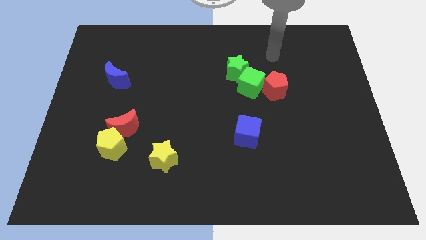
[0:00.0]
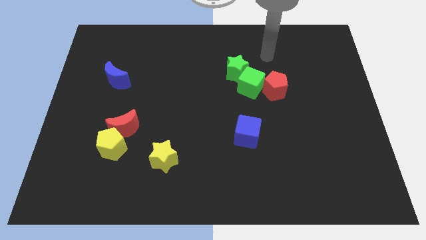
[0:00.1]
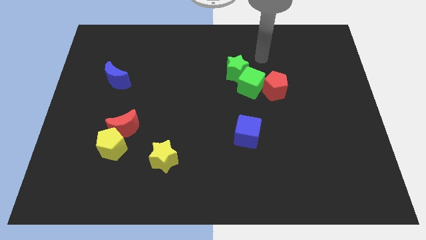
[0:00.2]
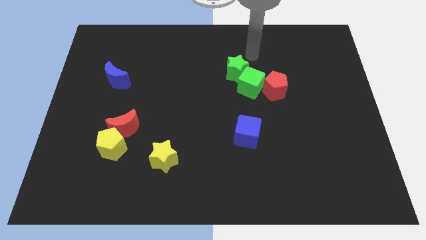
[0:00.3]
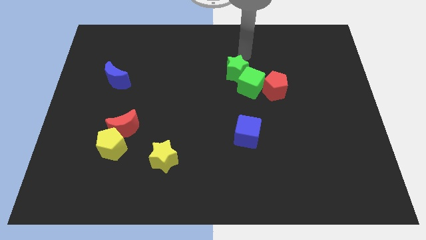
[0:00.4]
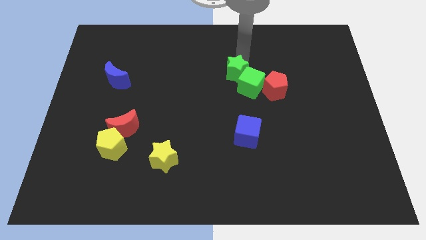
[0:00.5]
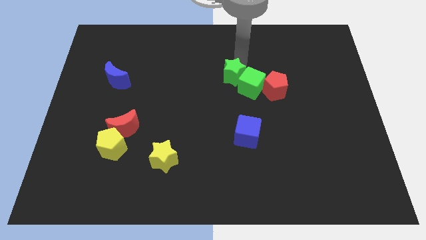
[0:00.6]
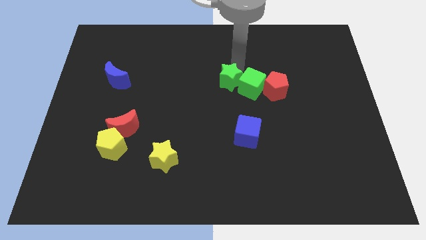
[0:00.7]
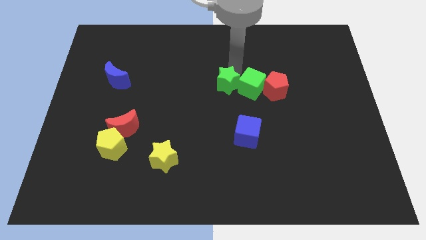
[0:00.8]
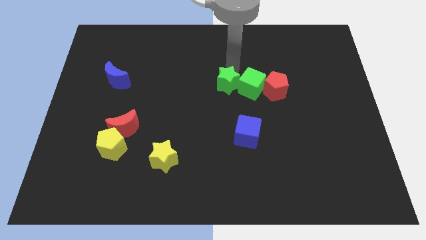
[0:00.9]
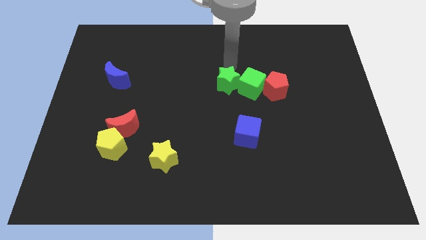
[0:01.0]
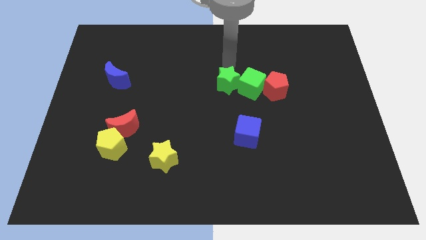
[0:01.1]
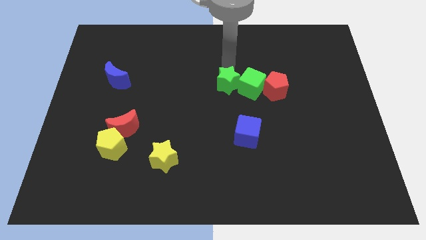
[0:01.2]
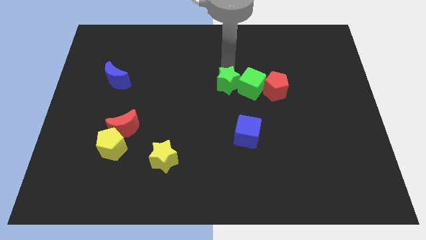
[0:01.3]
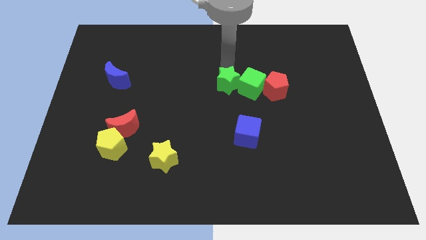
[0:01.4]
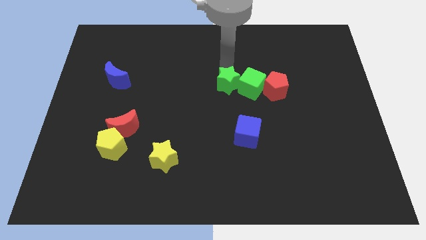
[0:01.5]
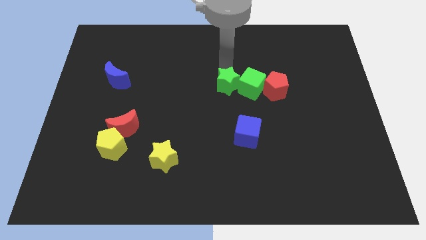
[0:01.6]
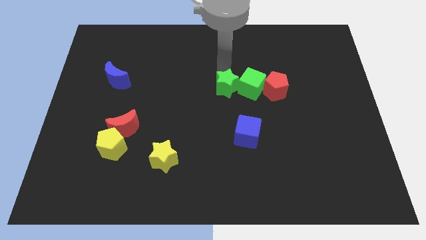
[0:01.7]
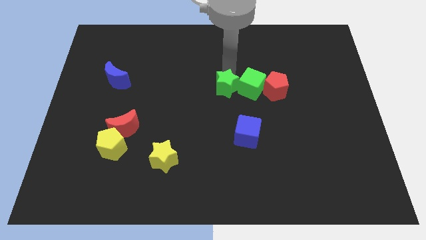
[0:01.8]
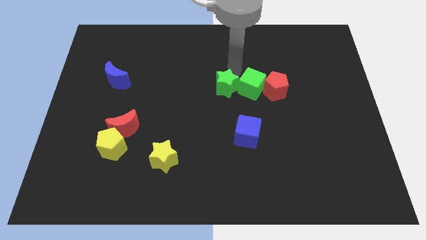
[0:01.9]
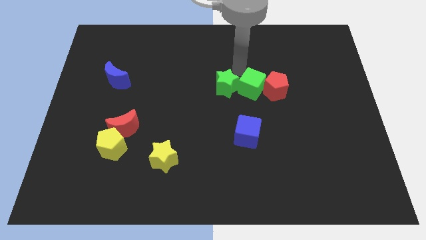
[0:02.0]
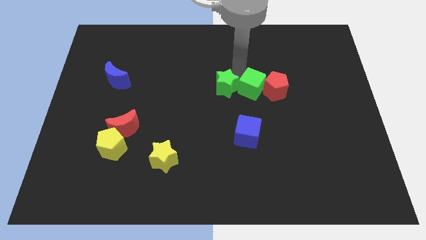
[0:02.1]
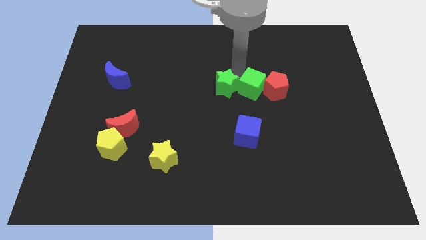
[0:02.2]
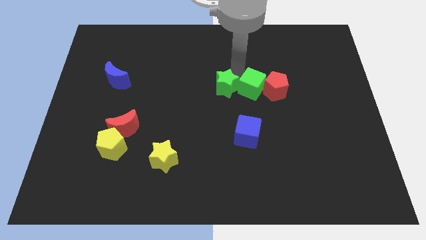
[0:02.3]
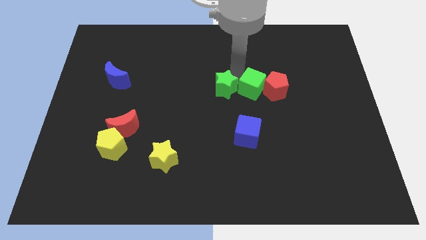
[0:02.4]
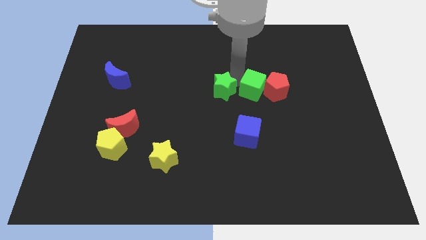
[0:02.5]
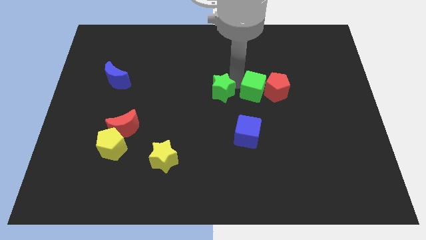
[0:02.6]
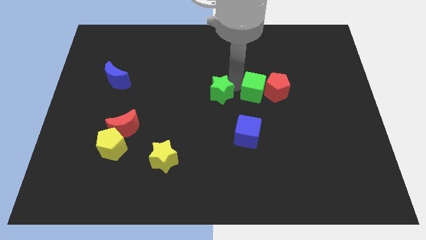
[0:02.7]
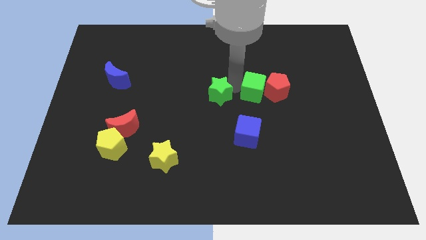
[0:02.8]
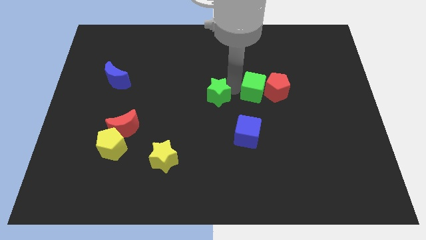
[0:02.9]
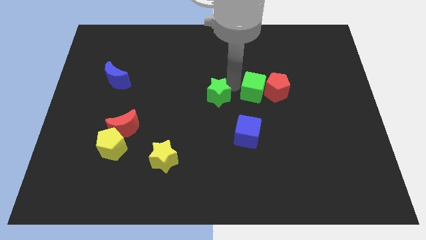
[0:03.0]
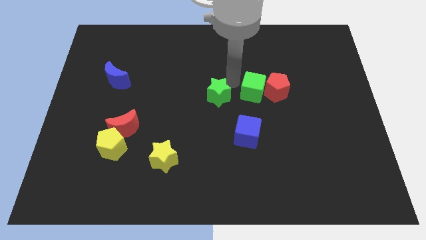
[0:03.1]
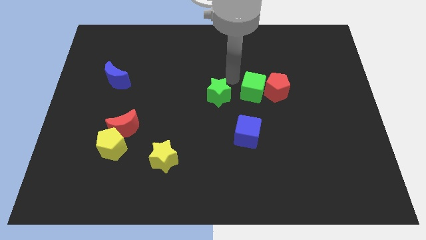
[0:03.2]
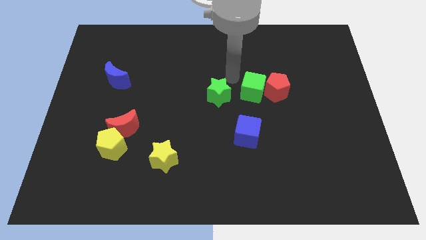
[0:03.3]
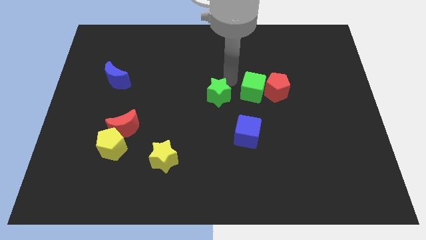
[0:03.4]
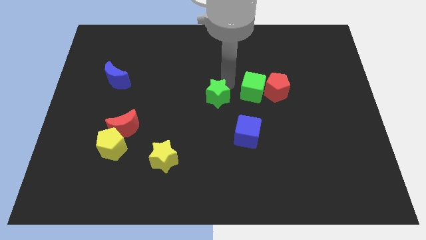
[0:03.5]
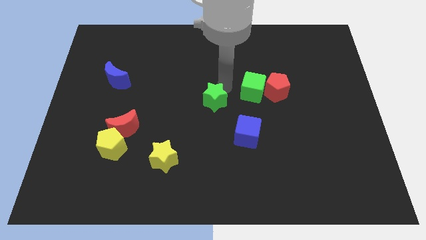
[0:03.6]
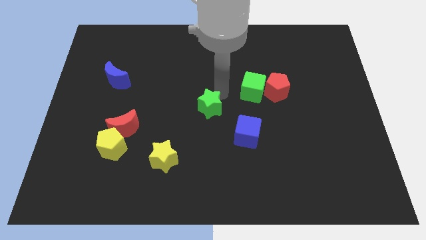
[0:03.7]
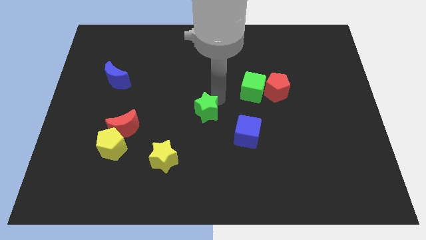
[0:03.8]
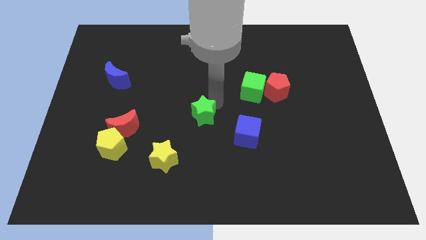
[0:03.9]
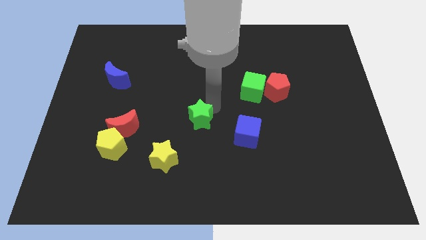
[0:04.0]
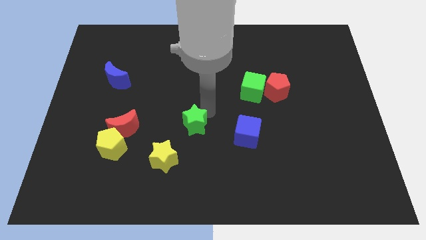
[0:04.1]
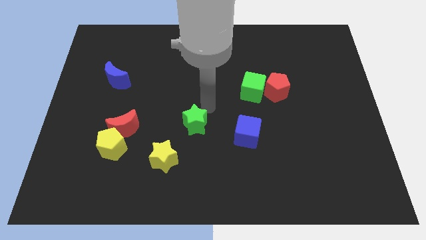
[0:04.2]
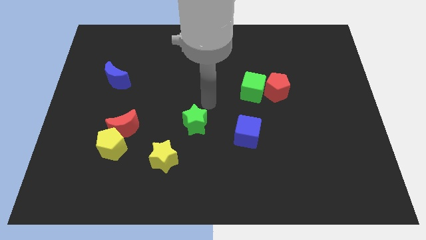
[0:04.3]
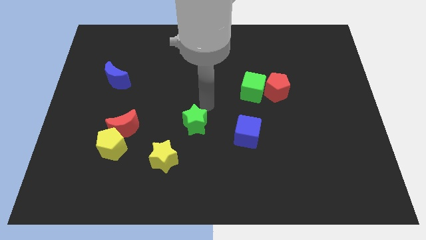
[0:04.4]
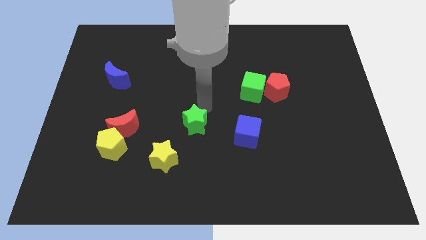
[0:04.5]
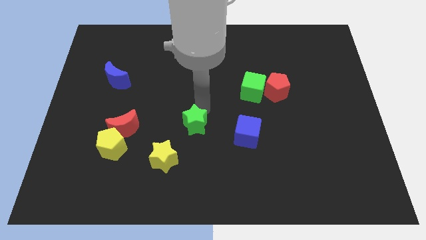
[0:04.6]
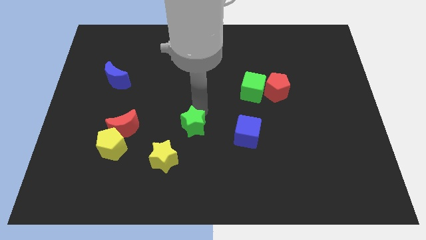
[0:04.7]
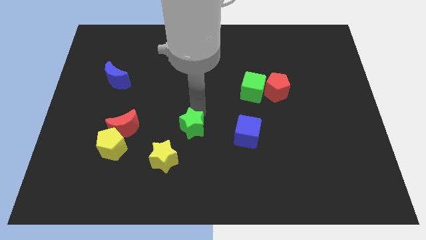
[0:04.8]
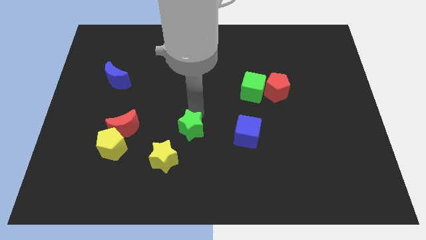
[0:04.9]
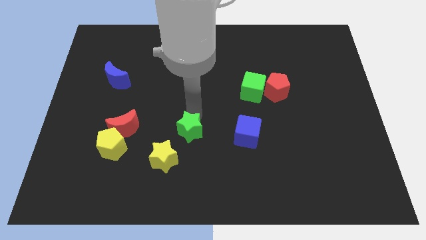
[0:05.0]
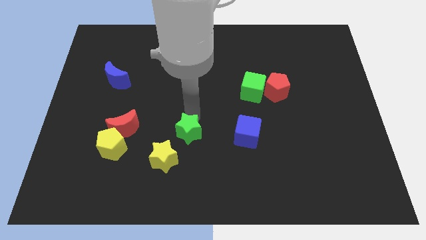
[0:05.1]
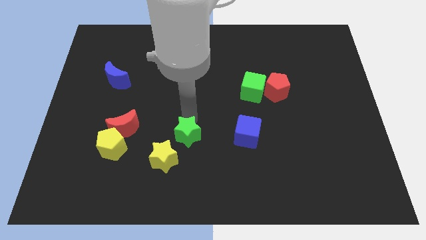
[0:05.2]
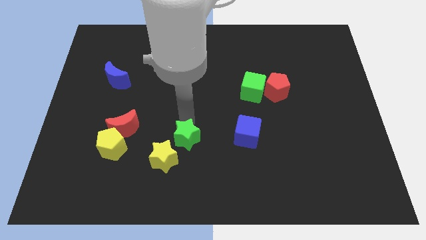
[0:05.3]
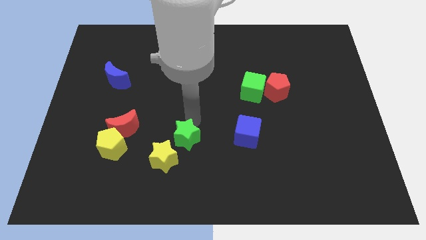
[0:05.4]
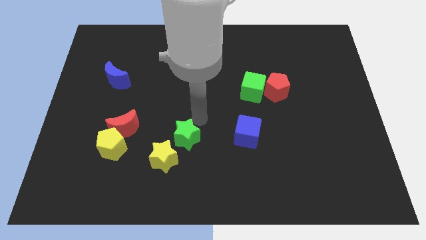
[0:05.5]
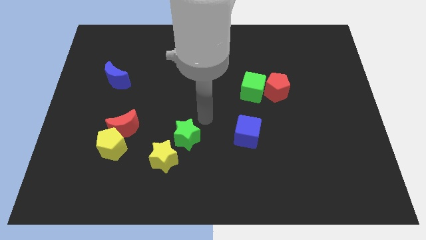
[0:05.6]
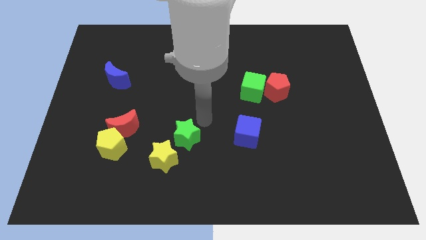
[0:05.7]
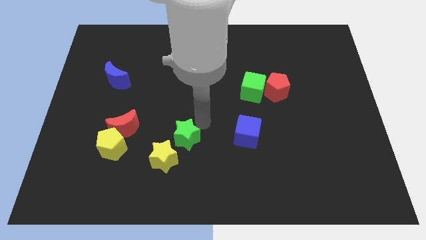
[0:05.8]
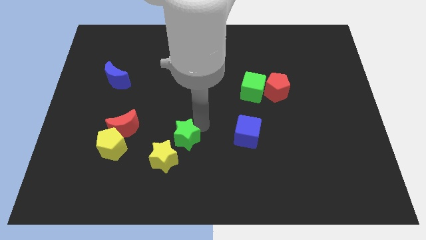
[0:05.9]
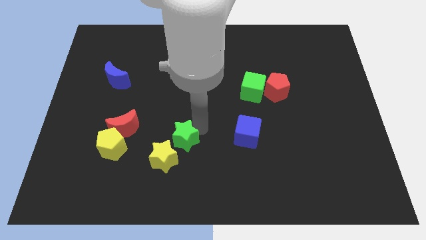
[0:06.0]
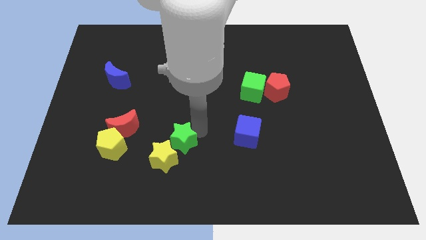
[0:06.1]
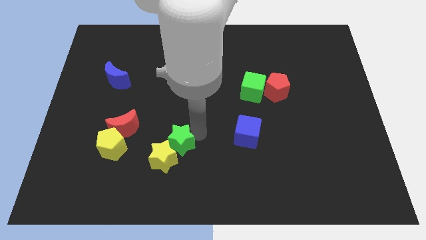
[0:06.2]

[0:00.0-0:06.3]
slide the green star close to the yellow star
